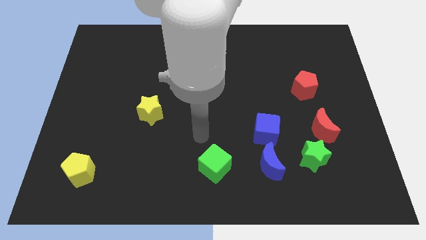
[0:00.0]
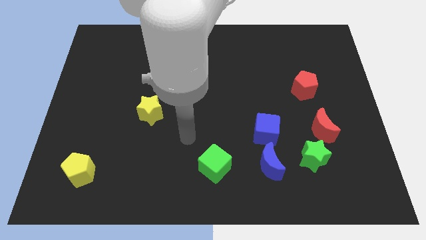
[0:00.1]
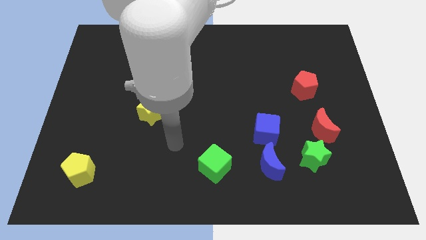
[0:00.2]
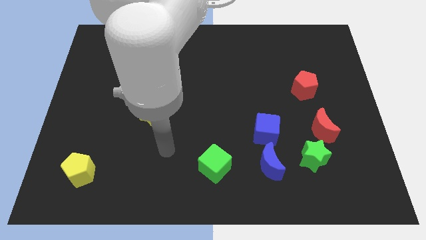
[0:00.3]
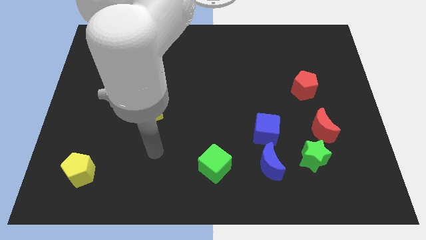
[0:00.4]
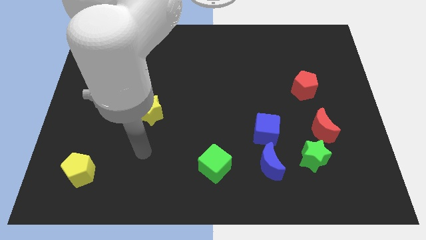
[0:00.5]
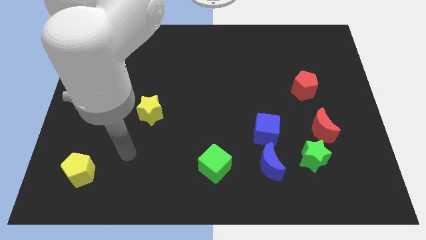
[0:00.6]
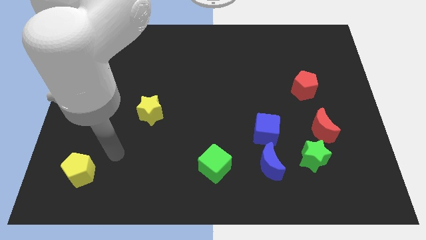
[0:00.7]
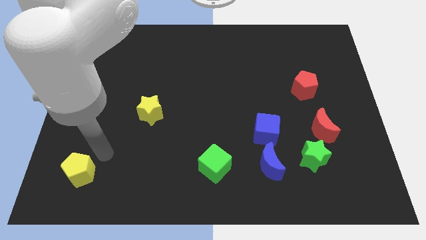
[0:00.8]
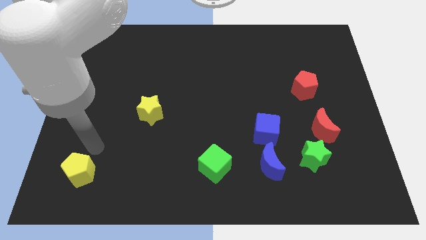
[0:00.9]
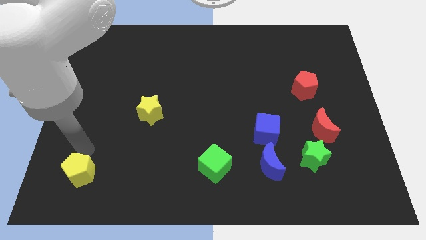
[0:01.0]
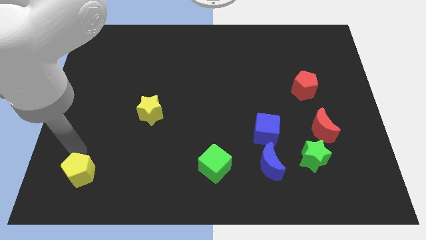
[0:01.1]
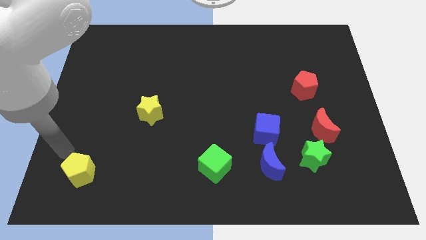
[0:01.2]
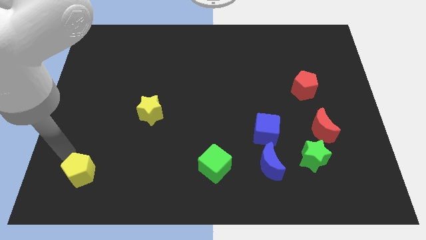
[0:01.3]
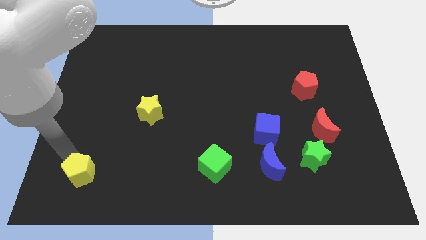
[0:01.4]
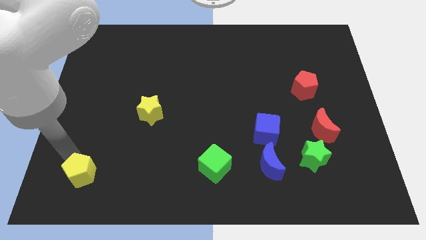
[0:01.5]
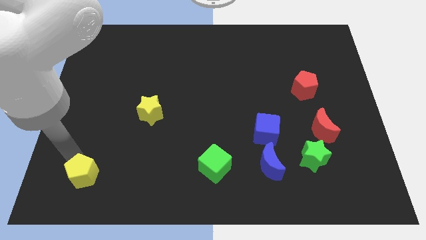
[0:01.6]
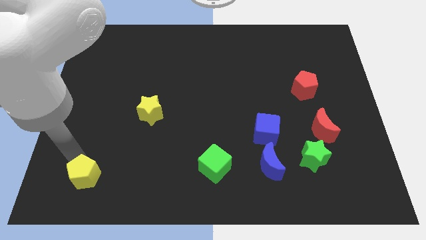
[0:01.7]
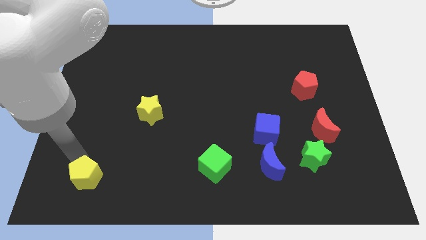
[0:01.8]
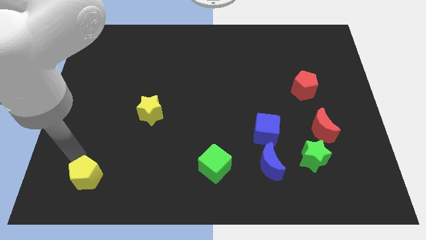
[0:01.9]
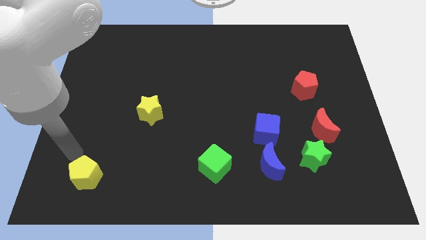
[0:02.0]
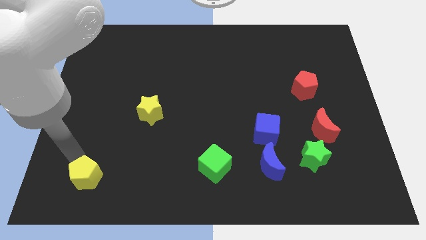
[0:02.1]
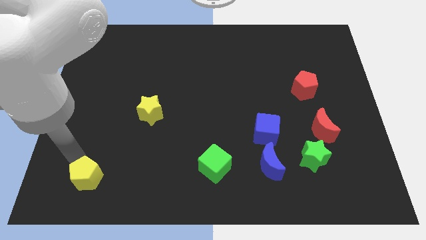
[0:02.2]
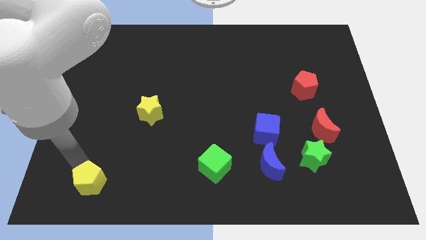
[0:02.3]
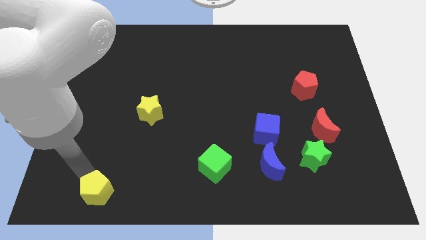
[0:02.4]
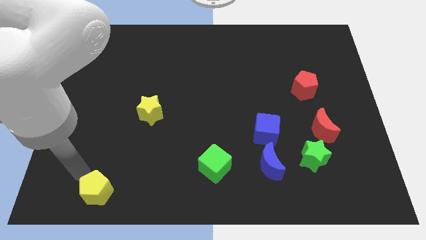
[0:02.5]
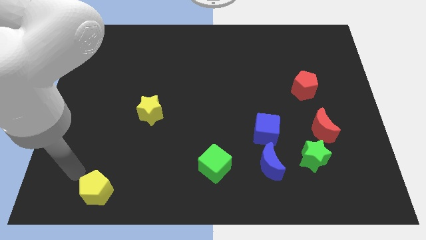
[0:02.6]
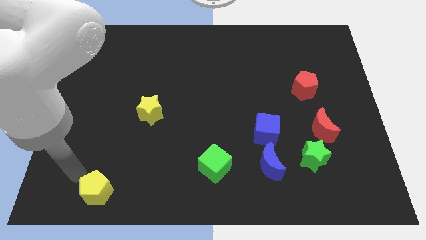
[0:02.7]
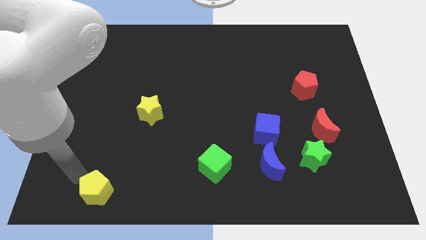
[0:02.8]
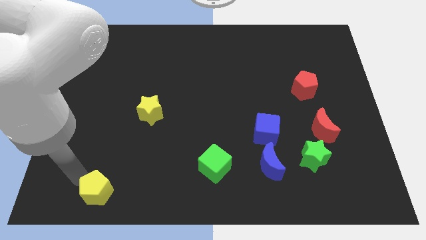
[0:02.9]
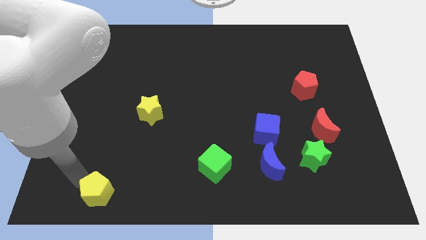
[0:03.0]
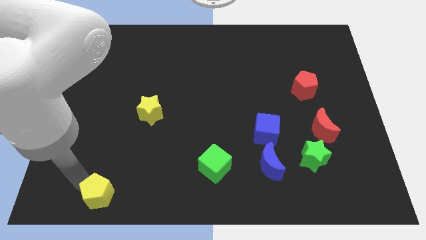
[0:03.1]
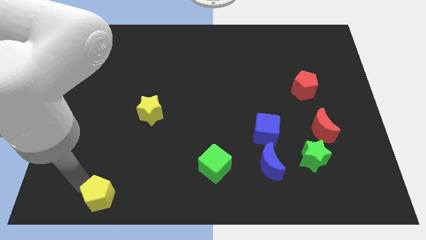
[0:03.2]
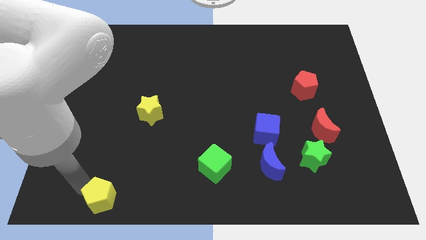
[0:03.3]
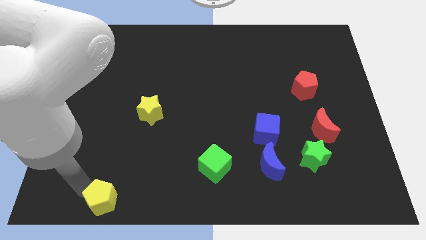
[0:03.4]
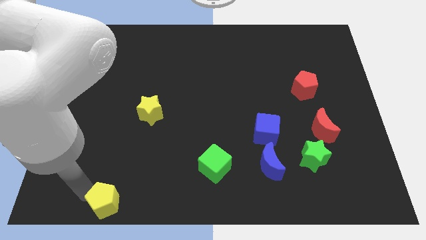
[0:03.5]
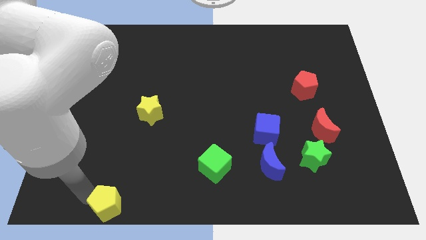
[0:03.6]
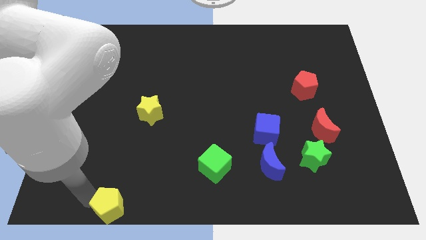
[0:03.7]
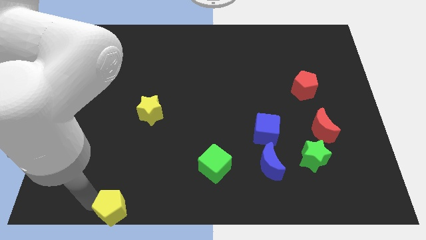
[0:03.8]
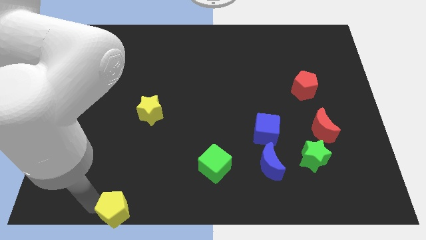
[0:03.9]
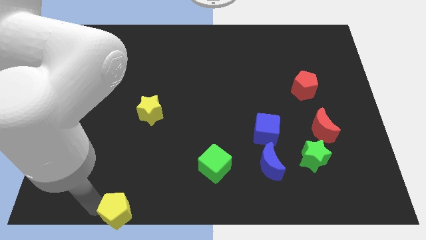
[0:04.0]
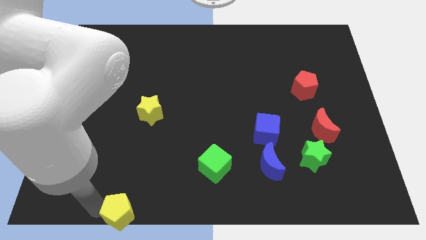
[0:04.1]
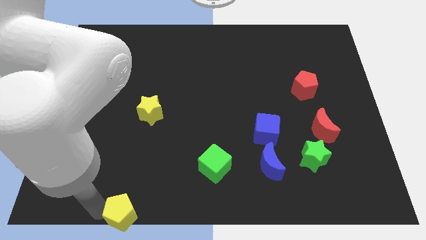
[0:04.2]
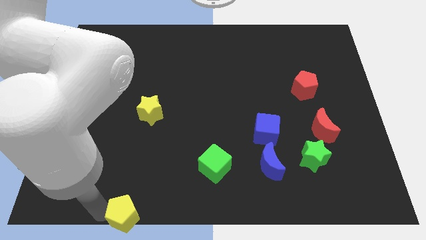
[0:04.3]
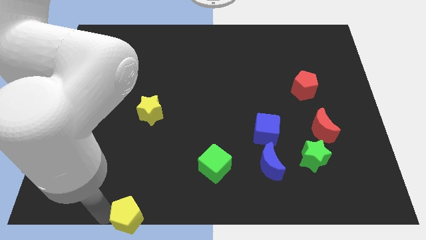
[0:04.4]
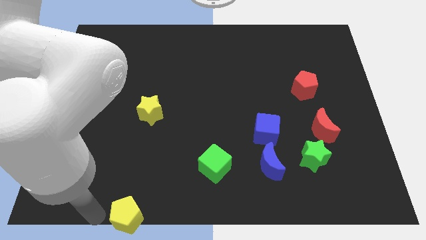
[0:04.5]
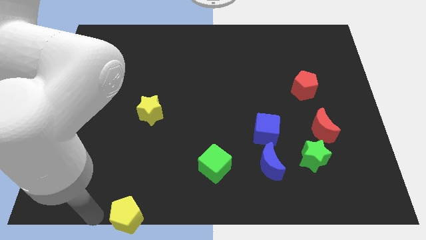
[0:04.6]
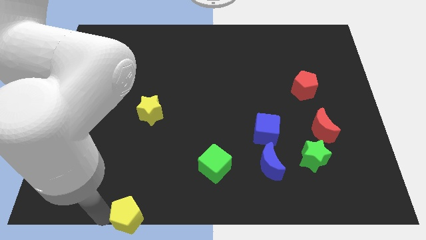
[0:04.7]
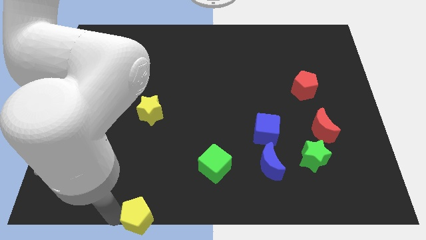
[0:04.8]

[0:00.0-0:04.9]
slide the yellow pentagon to the bottom

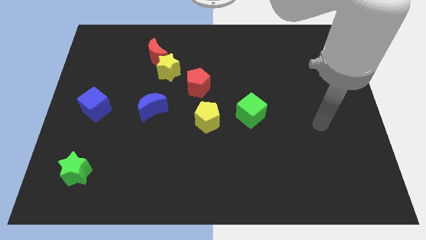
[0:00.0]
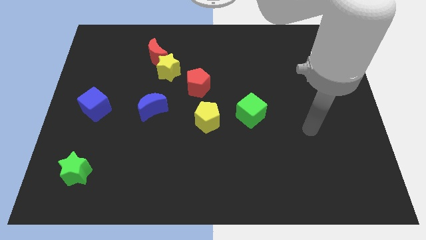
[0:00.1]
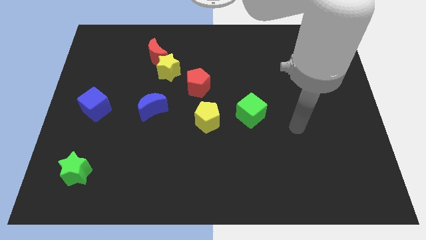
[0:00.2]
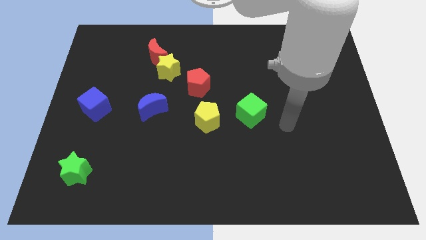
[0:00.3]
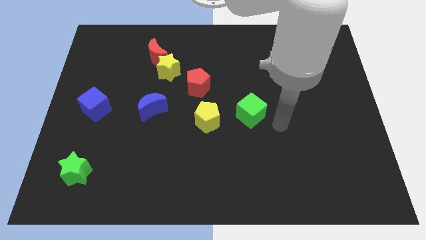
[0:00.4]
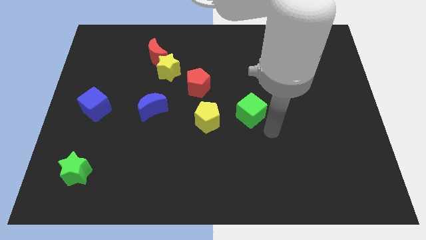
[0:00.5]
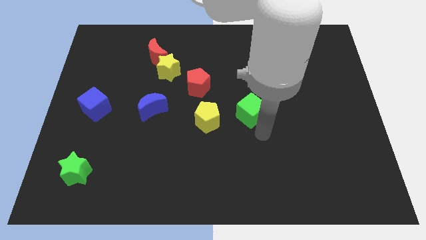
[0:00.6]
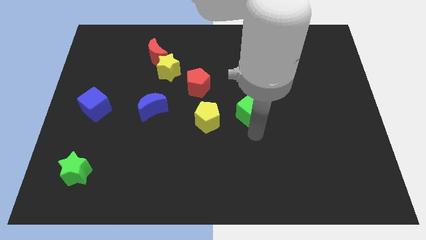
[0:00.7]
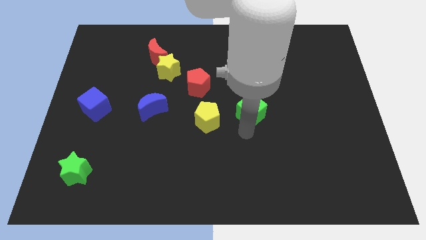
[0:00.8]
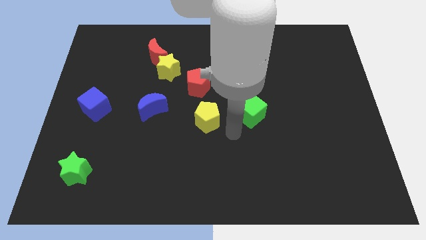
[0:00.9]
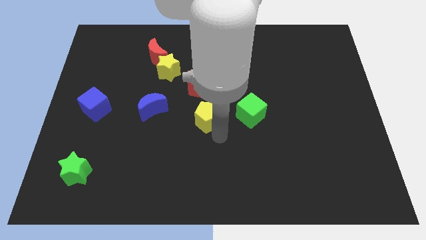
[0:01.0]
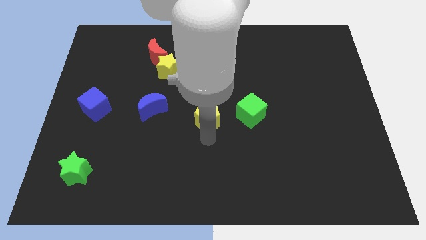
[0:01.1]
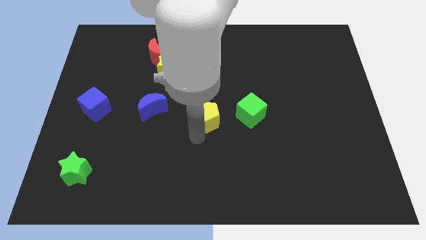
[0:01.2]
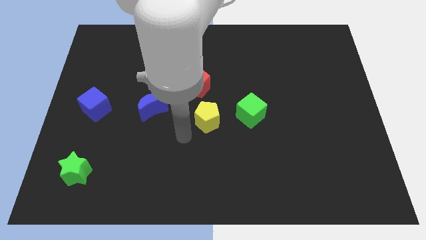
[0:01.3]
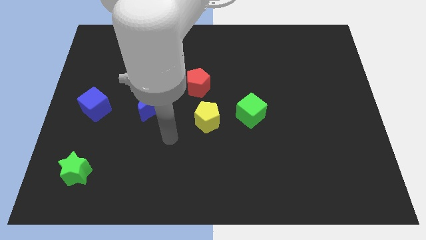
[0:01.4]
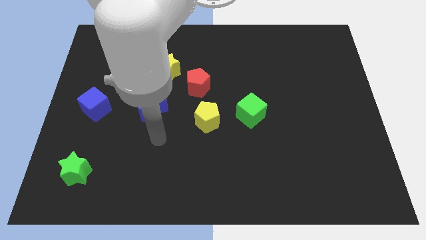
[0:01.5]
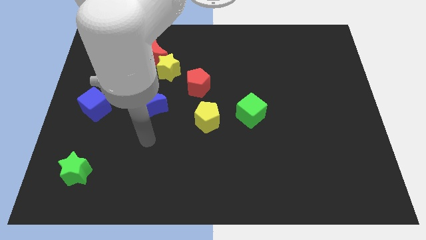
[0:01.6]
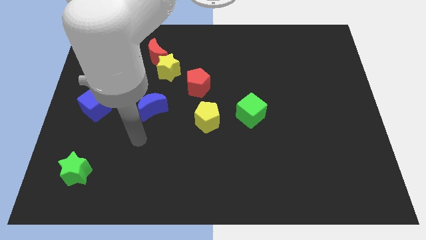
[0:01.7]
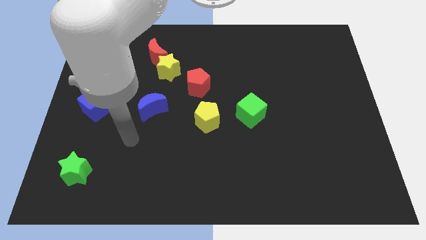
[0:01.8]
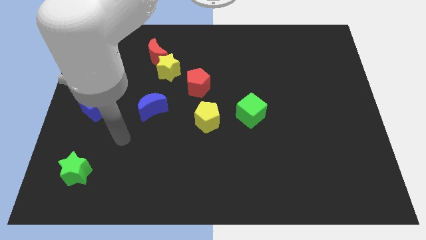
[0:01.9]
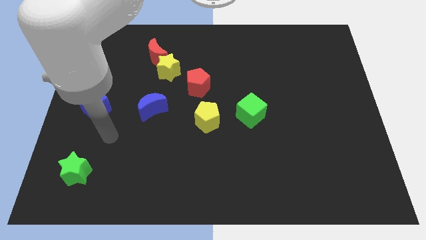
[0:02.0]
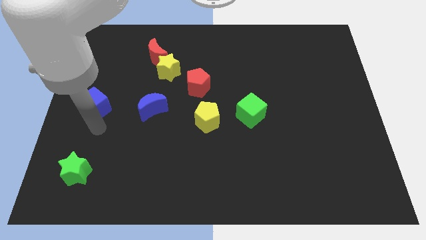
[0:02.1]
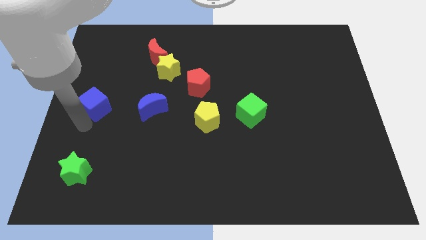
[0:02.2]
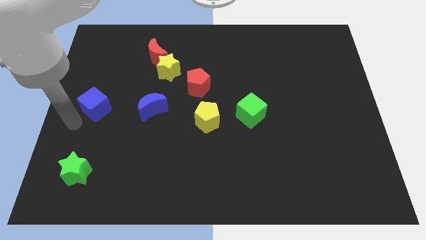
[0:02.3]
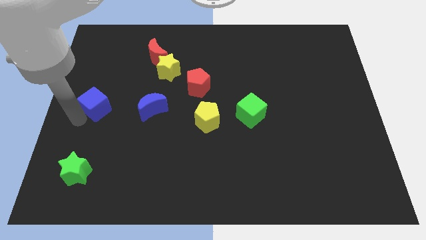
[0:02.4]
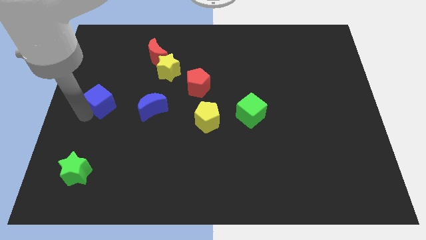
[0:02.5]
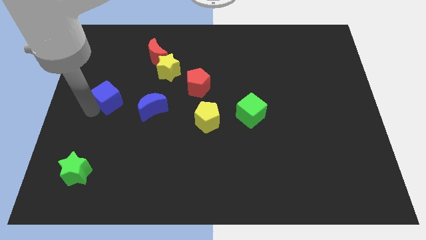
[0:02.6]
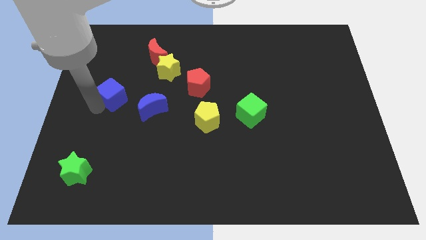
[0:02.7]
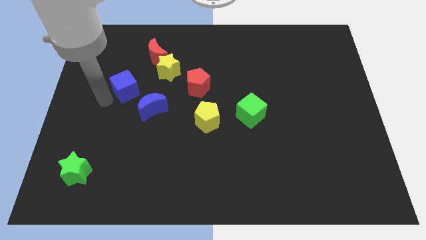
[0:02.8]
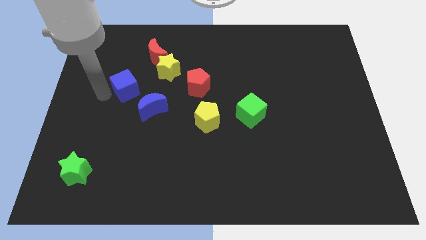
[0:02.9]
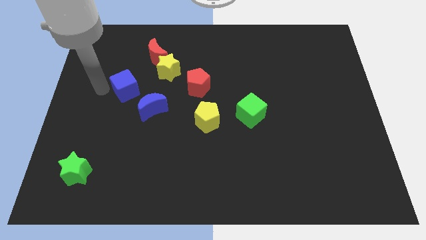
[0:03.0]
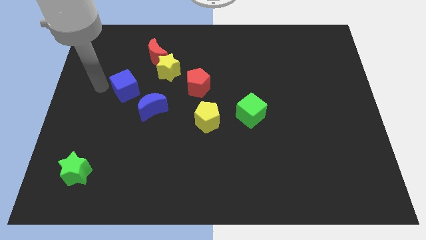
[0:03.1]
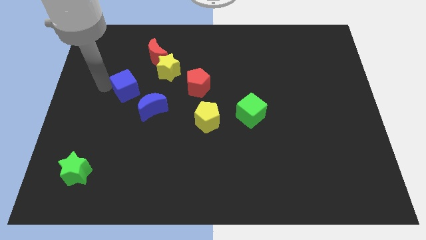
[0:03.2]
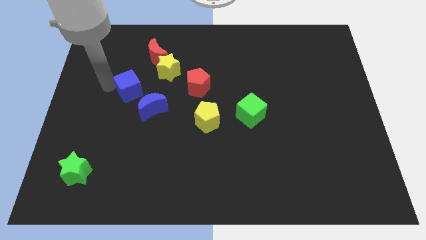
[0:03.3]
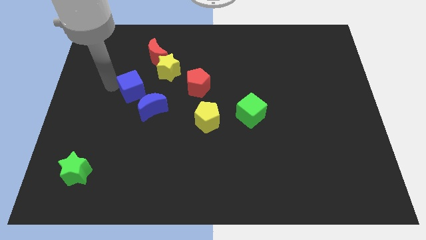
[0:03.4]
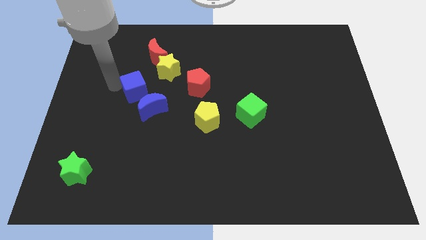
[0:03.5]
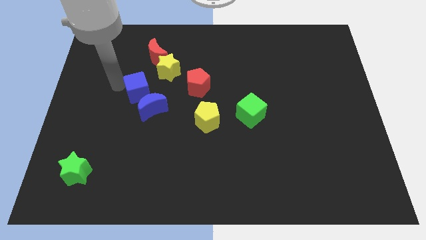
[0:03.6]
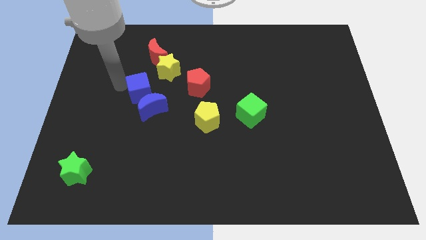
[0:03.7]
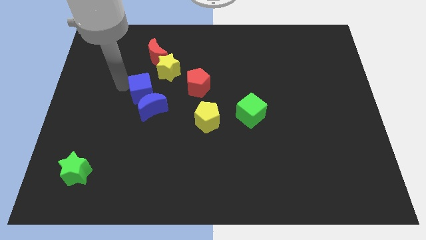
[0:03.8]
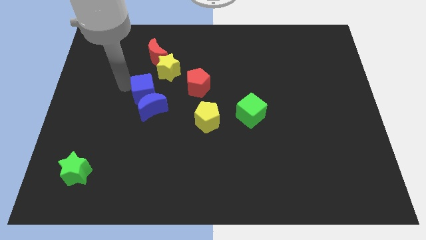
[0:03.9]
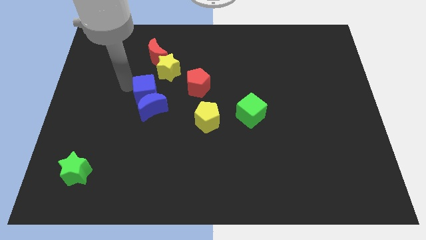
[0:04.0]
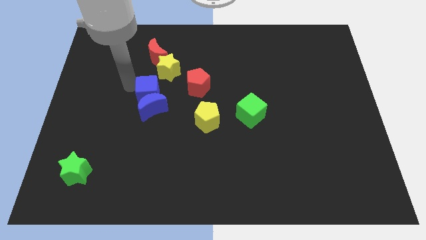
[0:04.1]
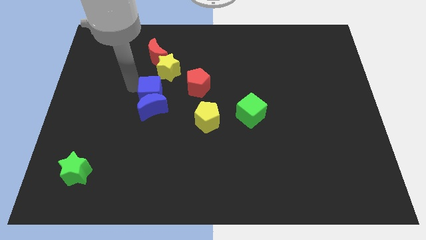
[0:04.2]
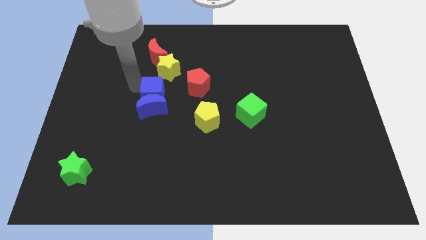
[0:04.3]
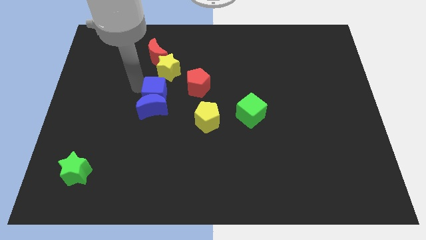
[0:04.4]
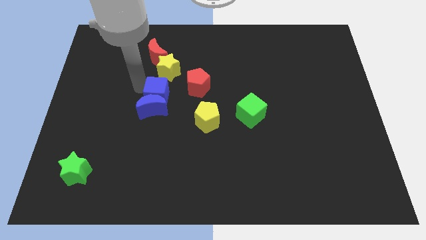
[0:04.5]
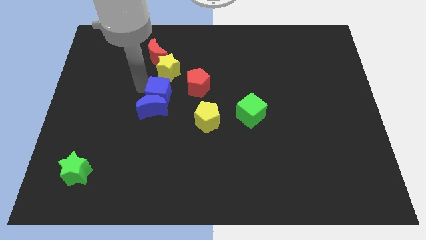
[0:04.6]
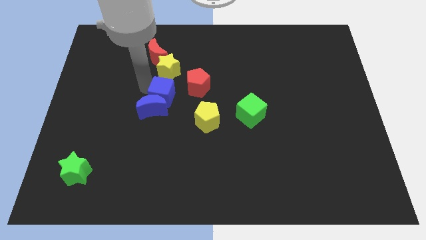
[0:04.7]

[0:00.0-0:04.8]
slide the blue cube to the center of the board
